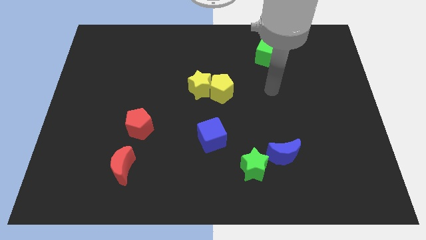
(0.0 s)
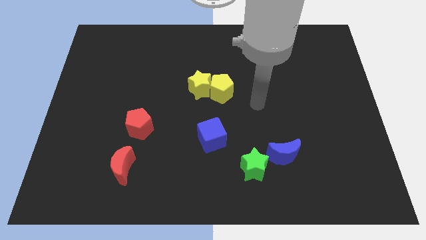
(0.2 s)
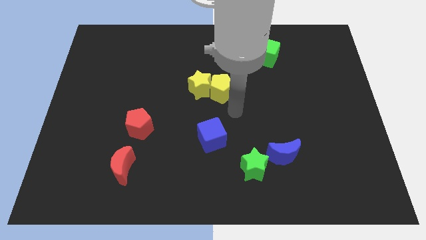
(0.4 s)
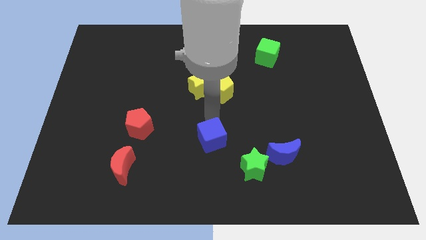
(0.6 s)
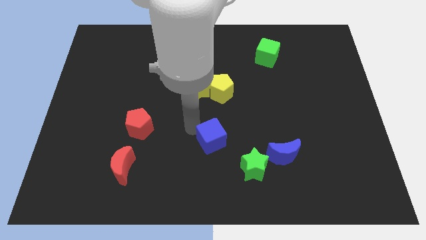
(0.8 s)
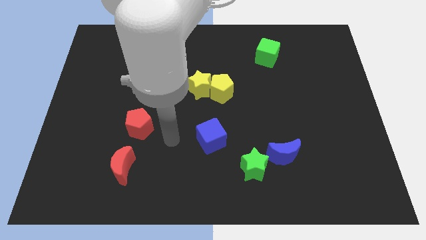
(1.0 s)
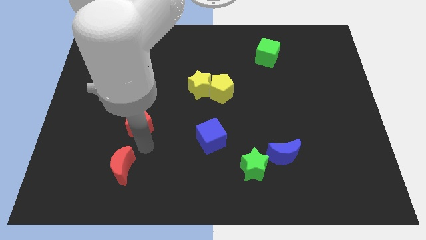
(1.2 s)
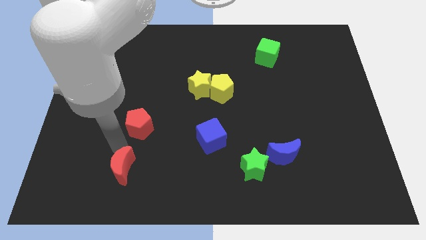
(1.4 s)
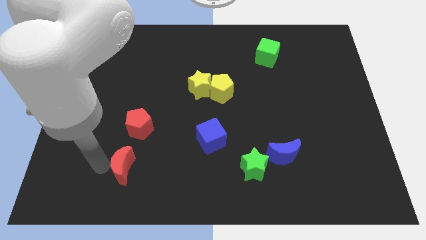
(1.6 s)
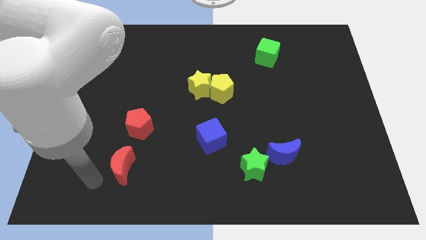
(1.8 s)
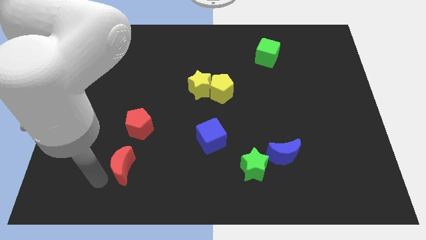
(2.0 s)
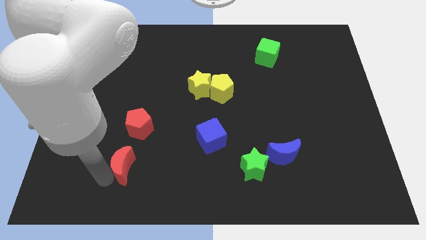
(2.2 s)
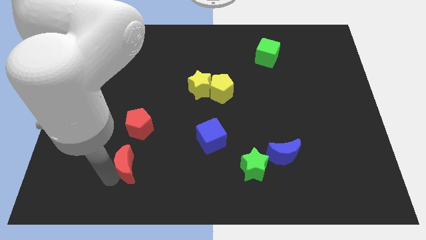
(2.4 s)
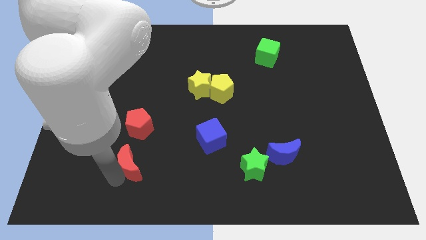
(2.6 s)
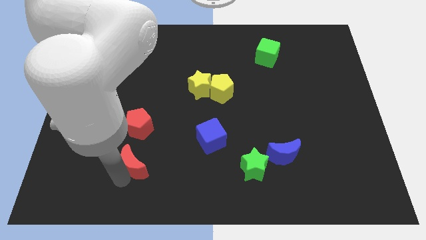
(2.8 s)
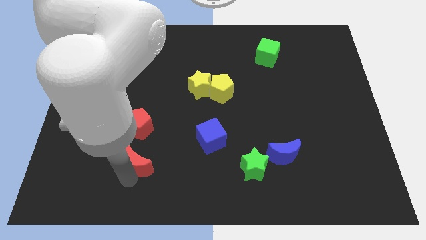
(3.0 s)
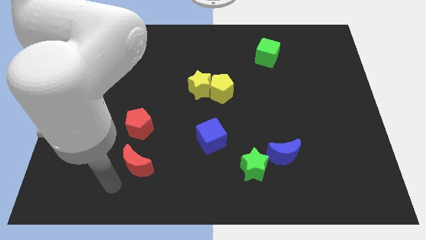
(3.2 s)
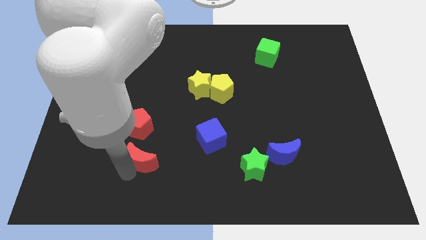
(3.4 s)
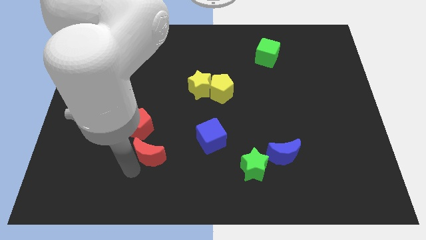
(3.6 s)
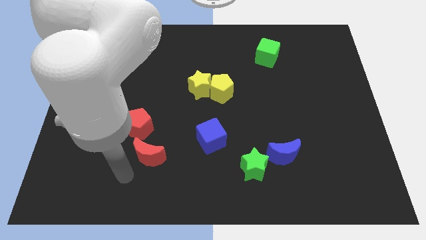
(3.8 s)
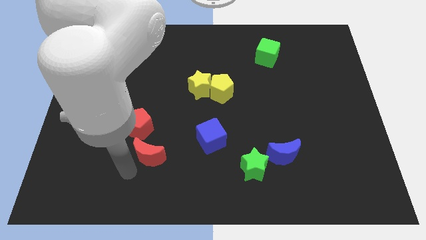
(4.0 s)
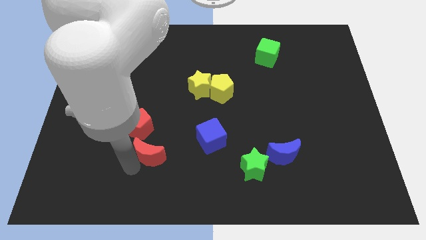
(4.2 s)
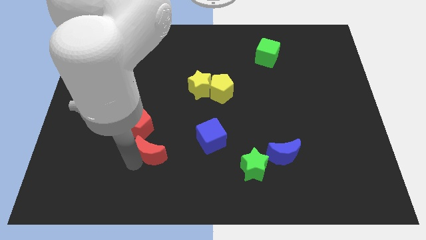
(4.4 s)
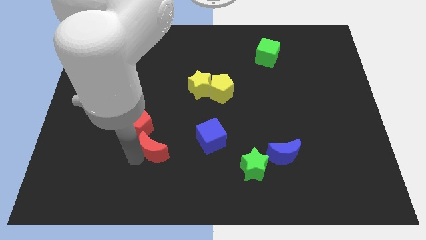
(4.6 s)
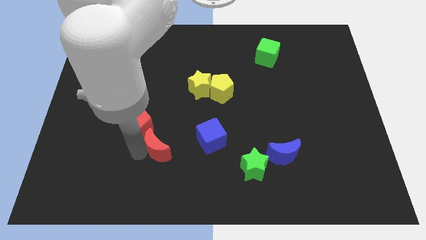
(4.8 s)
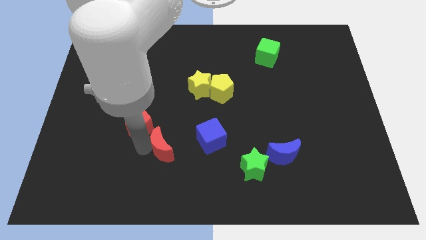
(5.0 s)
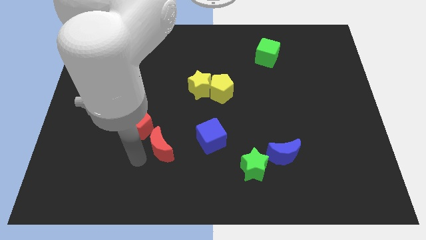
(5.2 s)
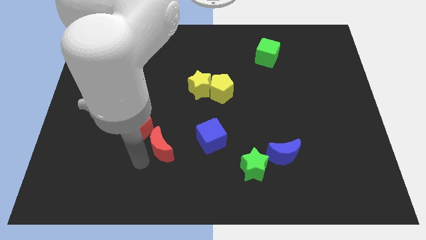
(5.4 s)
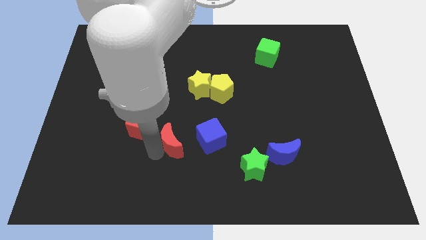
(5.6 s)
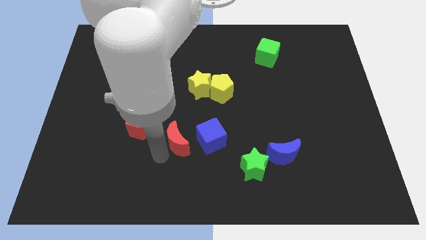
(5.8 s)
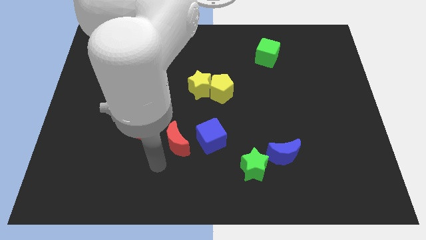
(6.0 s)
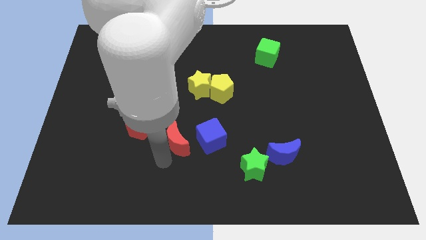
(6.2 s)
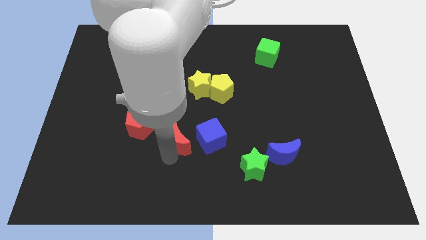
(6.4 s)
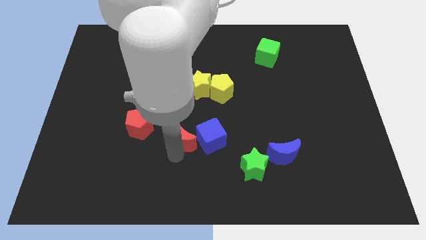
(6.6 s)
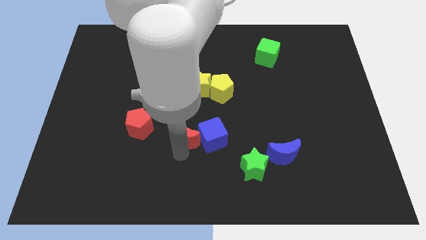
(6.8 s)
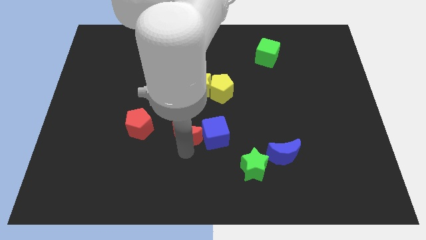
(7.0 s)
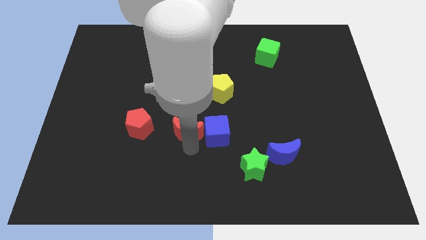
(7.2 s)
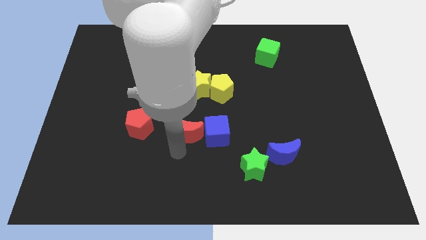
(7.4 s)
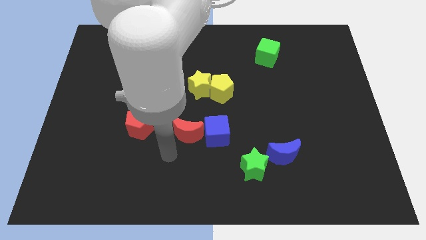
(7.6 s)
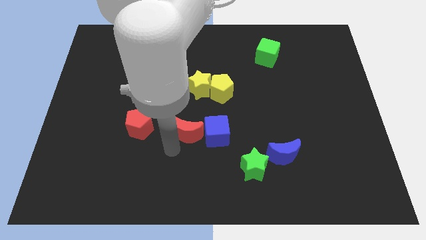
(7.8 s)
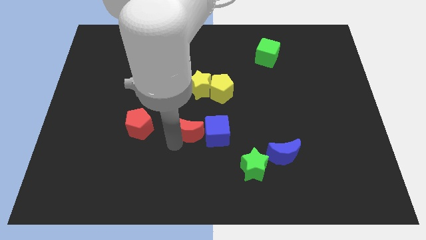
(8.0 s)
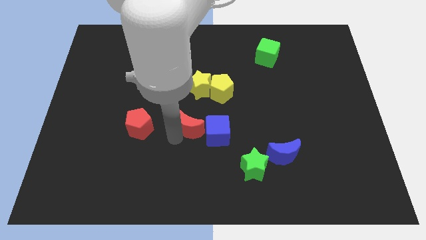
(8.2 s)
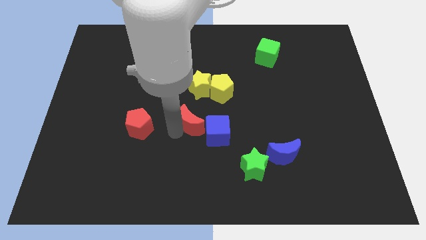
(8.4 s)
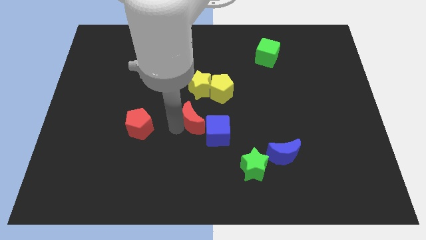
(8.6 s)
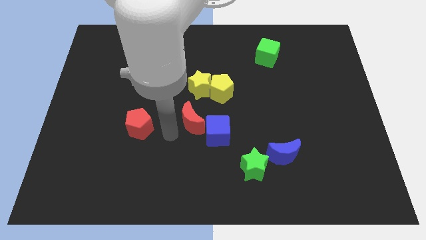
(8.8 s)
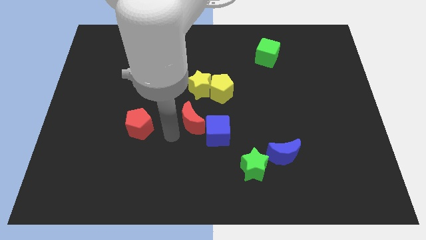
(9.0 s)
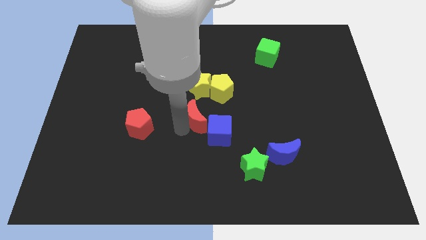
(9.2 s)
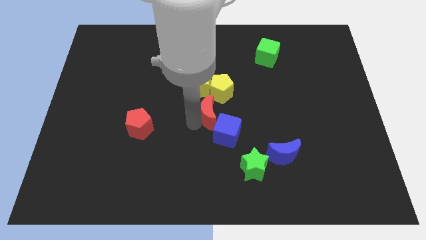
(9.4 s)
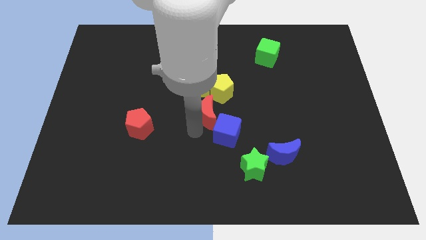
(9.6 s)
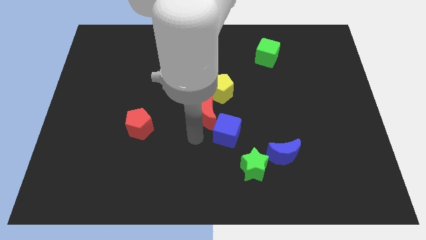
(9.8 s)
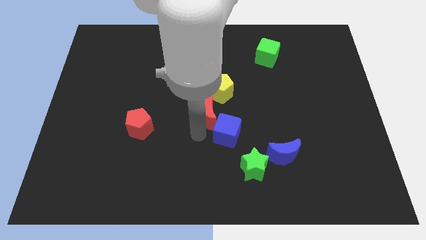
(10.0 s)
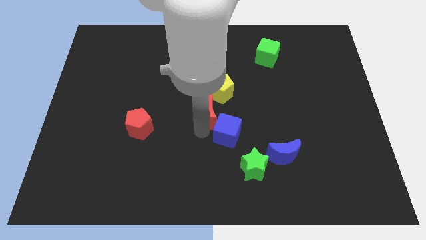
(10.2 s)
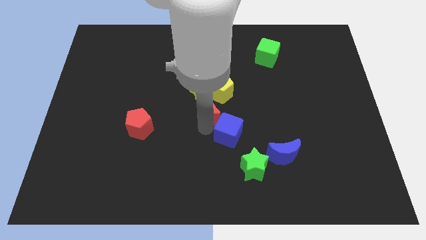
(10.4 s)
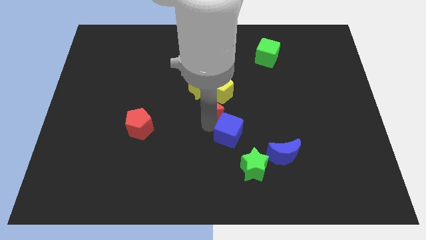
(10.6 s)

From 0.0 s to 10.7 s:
put the red moon next to the yellow pentagon

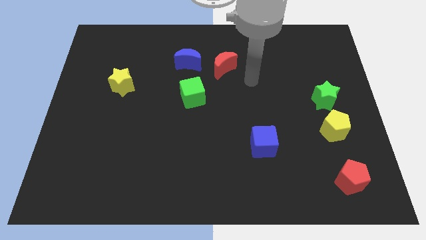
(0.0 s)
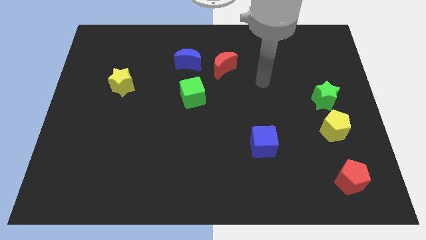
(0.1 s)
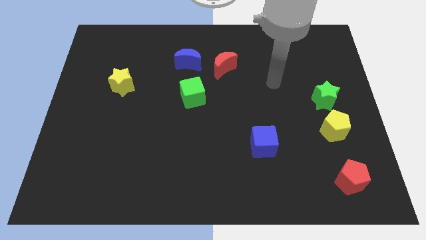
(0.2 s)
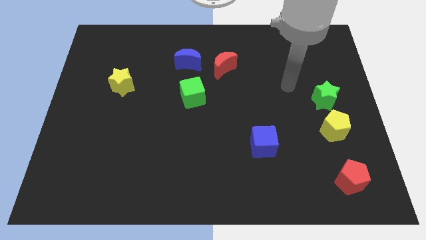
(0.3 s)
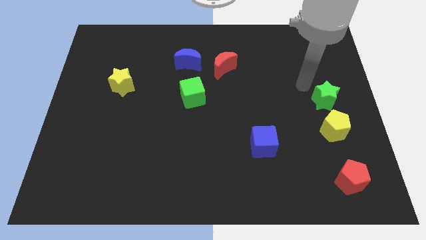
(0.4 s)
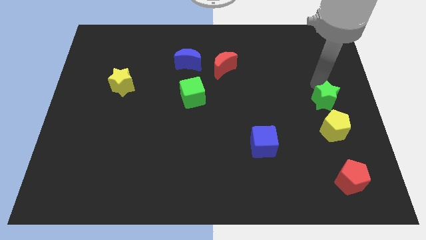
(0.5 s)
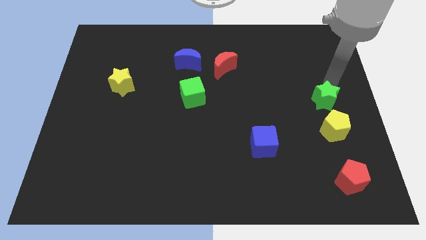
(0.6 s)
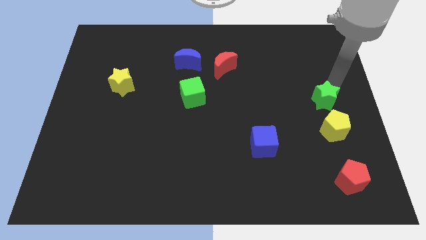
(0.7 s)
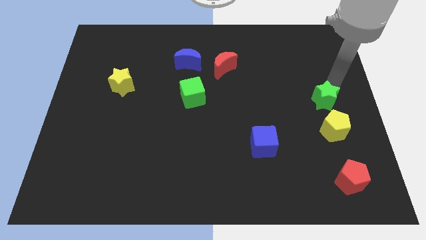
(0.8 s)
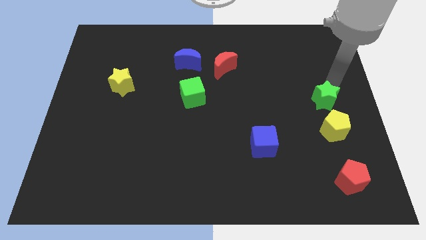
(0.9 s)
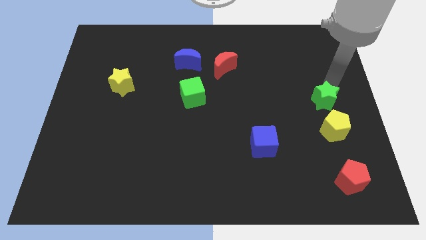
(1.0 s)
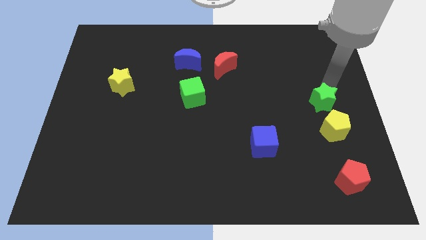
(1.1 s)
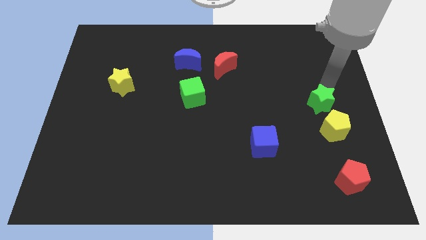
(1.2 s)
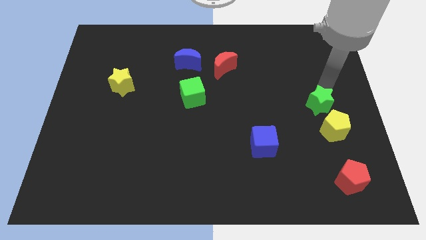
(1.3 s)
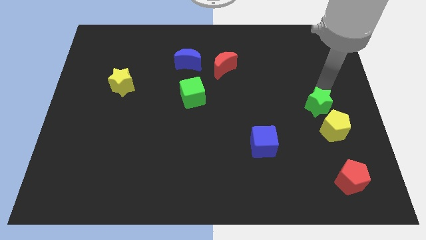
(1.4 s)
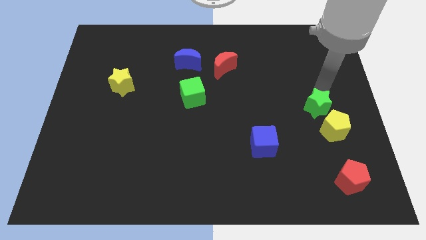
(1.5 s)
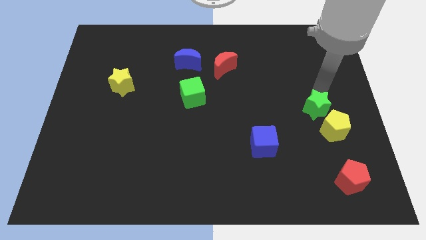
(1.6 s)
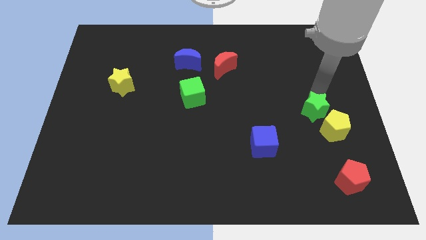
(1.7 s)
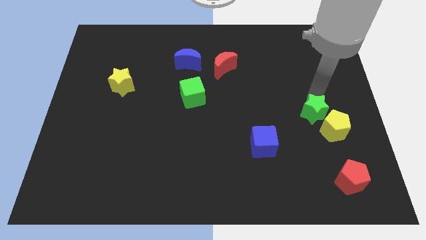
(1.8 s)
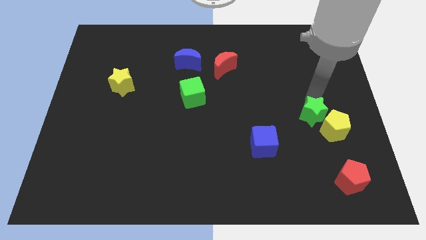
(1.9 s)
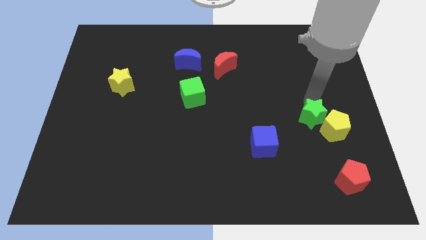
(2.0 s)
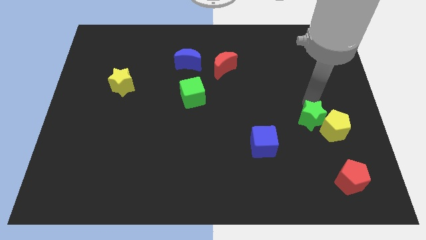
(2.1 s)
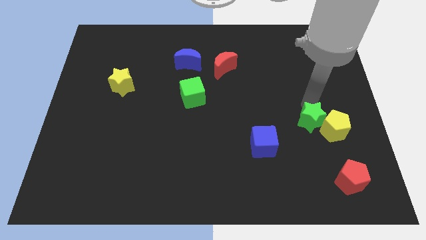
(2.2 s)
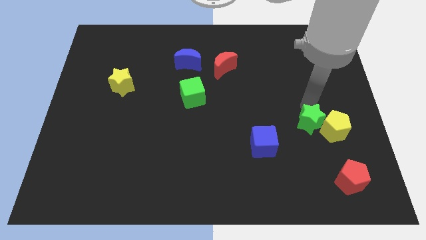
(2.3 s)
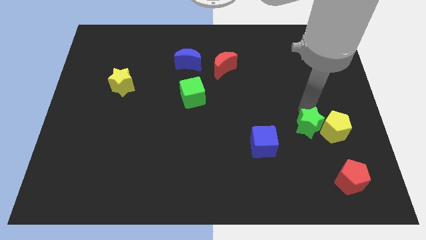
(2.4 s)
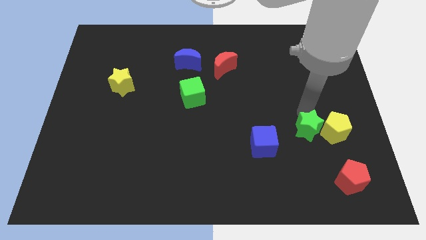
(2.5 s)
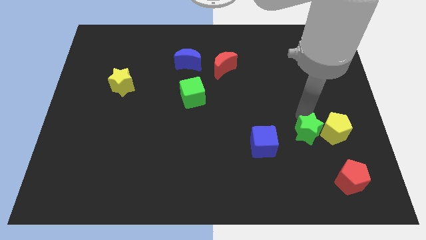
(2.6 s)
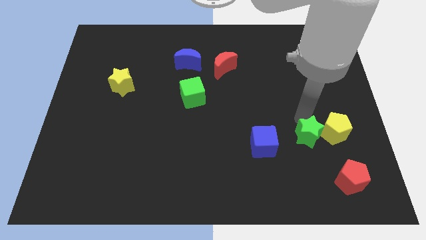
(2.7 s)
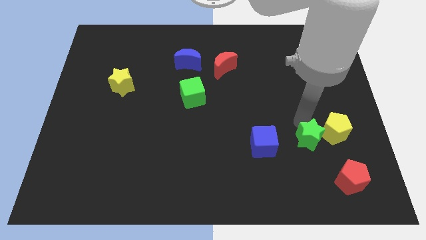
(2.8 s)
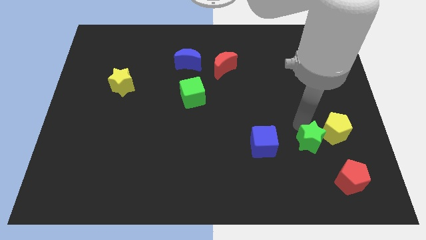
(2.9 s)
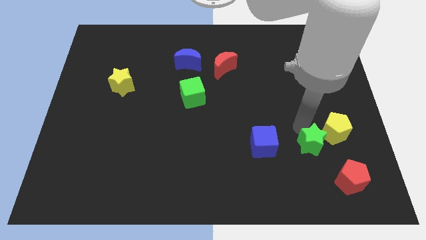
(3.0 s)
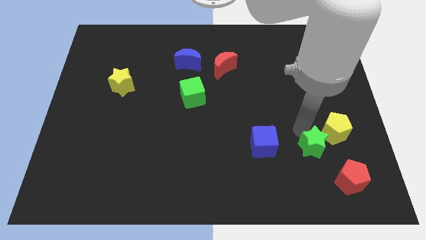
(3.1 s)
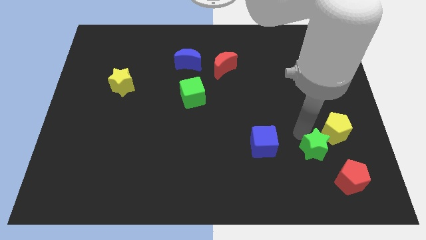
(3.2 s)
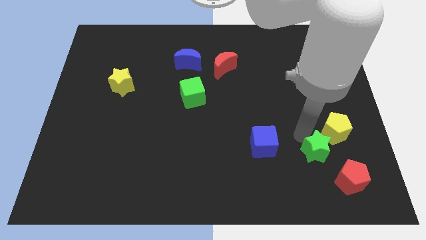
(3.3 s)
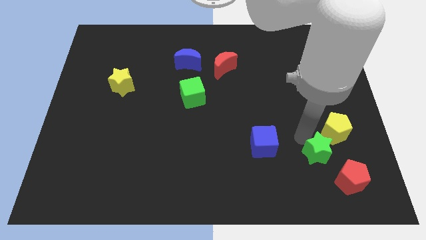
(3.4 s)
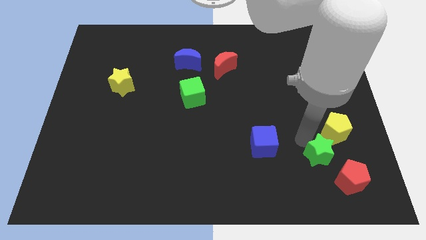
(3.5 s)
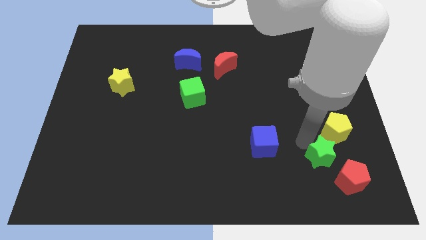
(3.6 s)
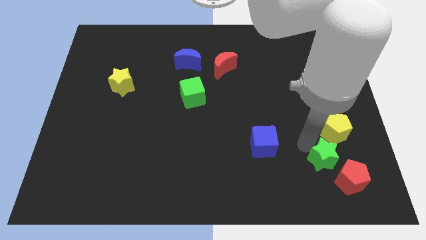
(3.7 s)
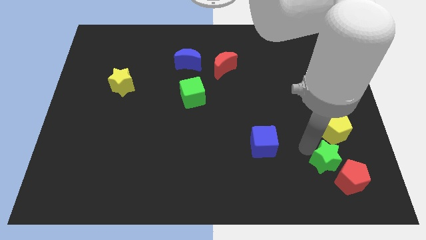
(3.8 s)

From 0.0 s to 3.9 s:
slide the green star to the red pentagon
